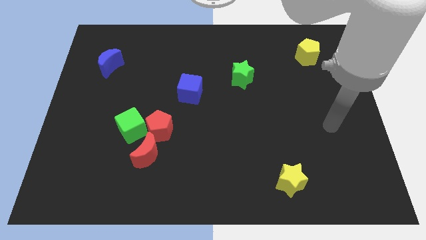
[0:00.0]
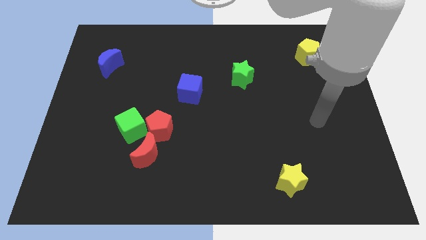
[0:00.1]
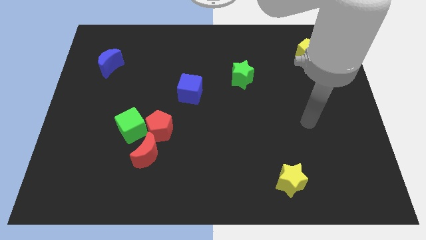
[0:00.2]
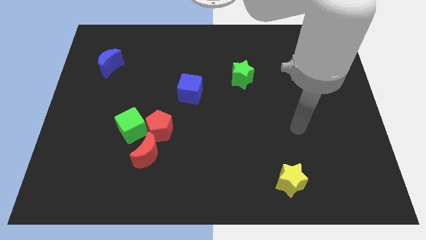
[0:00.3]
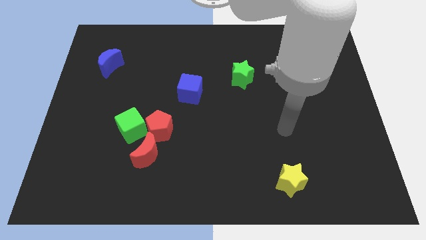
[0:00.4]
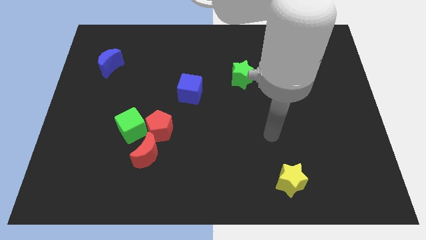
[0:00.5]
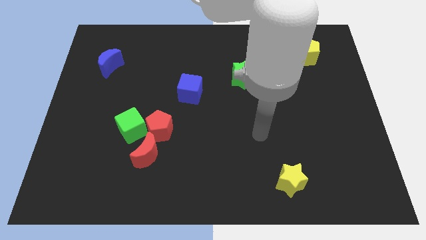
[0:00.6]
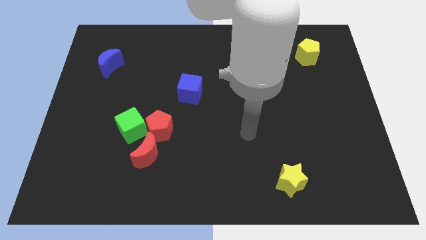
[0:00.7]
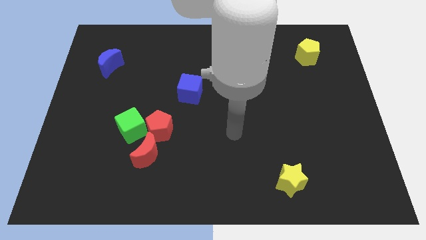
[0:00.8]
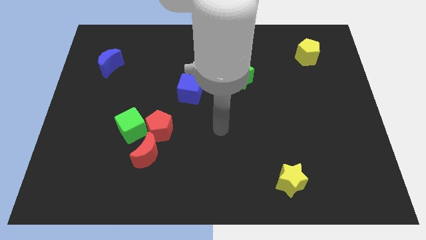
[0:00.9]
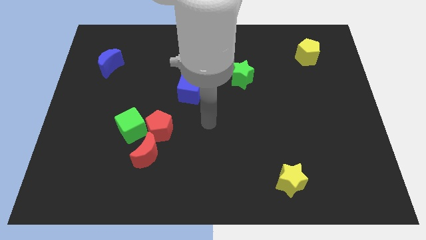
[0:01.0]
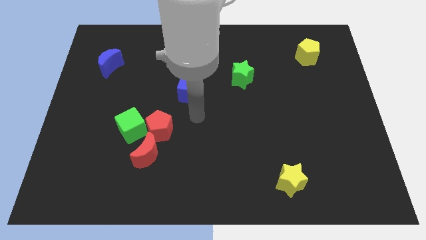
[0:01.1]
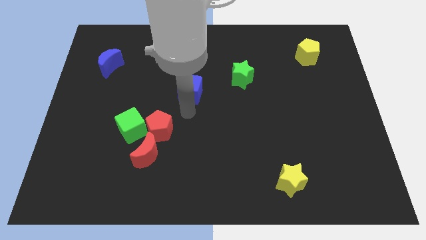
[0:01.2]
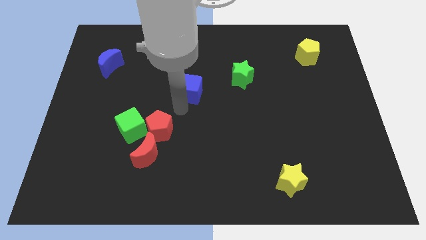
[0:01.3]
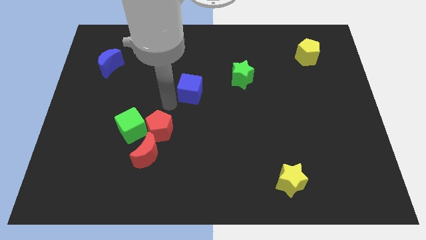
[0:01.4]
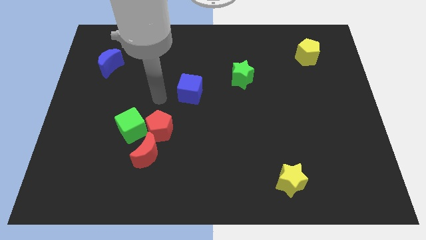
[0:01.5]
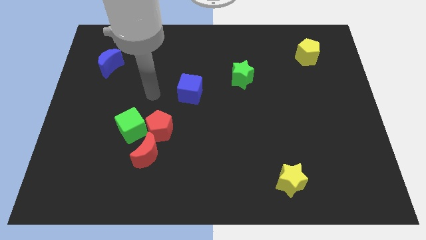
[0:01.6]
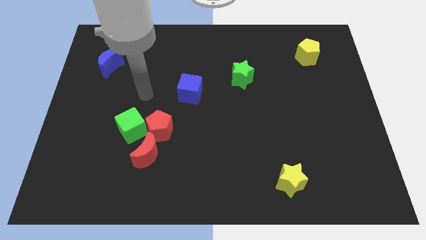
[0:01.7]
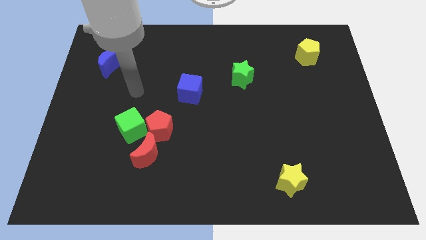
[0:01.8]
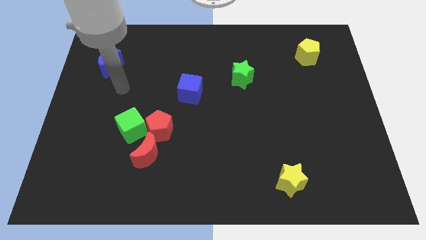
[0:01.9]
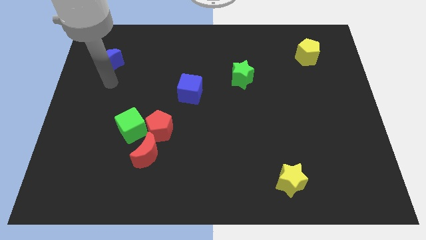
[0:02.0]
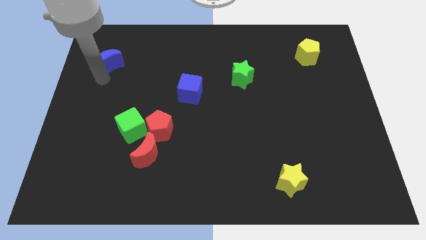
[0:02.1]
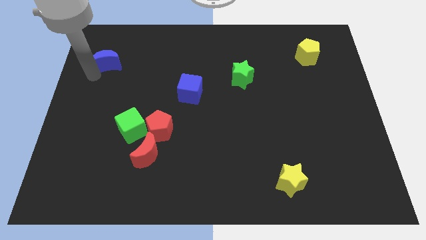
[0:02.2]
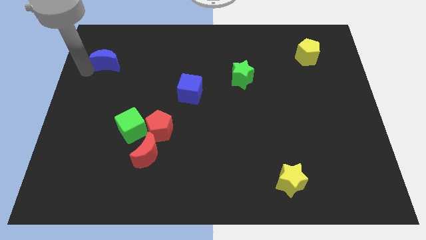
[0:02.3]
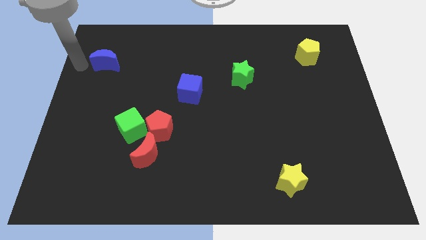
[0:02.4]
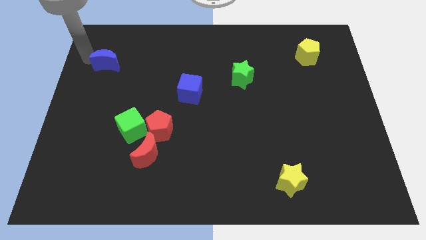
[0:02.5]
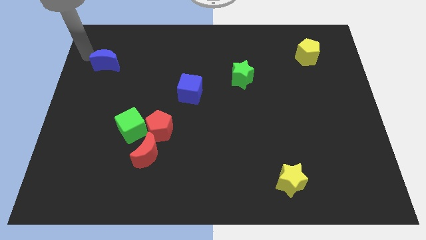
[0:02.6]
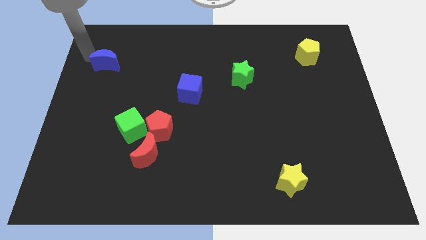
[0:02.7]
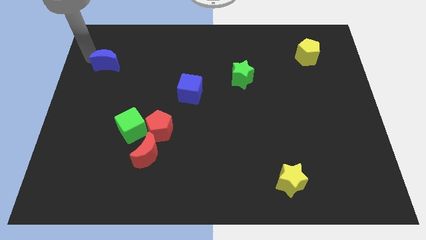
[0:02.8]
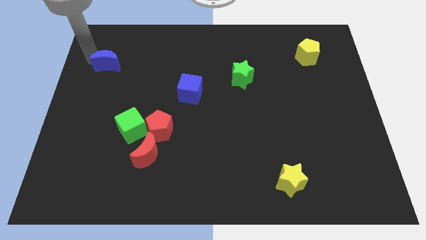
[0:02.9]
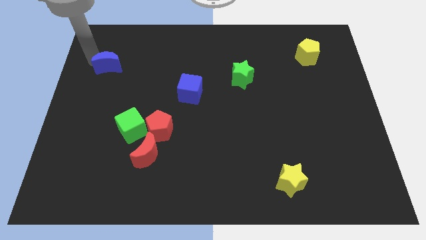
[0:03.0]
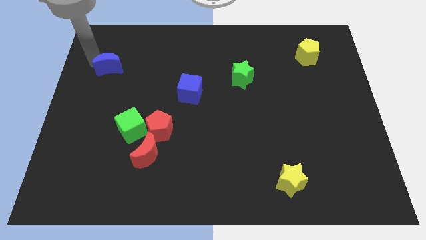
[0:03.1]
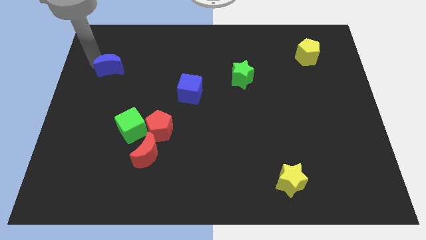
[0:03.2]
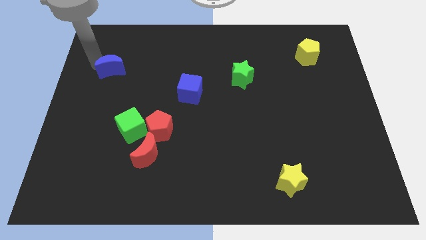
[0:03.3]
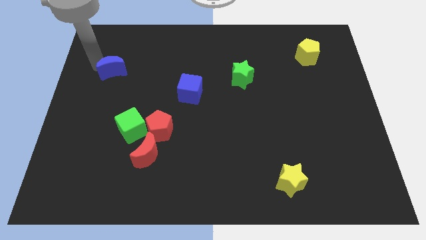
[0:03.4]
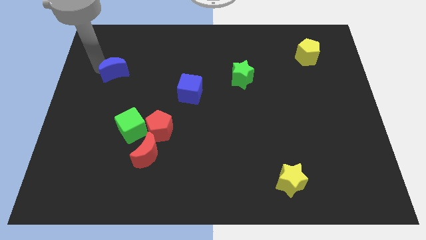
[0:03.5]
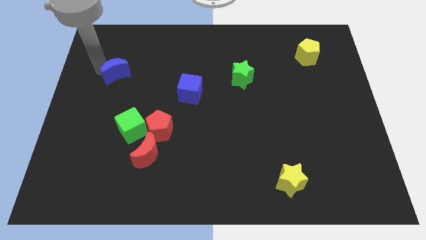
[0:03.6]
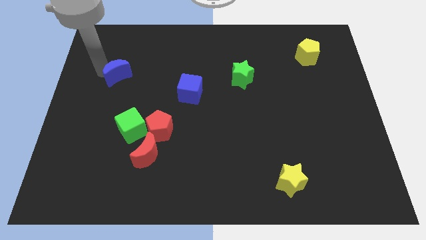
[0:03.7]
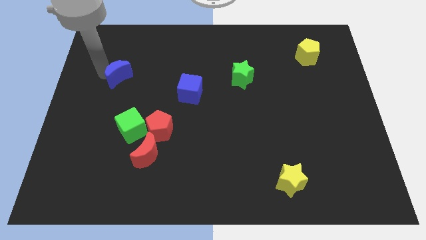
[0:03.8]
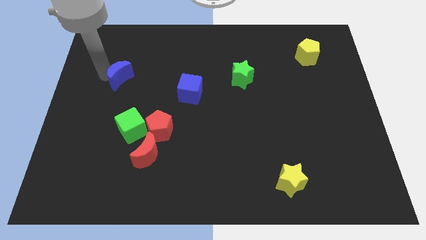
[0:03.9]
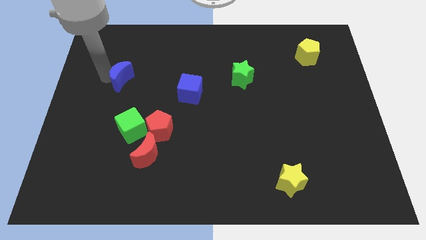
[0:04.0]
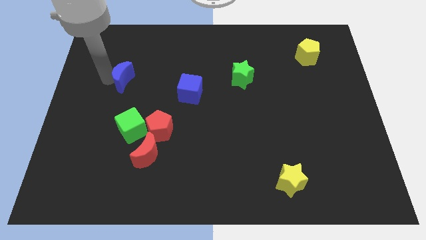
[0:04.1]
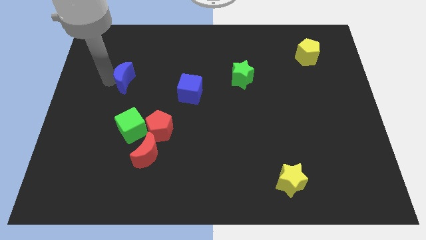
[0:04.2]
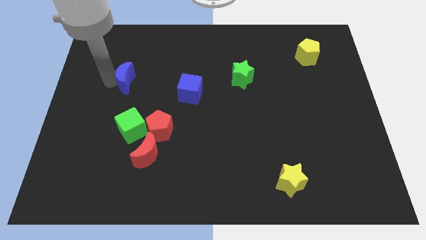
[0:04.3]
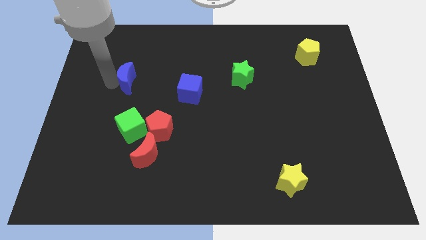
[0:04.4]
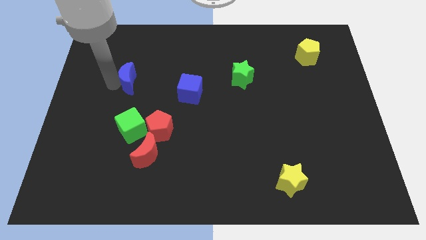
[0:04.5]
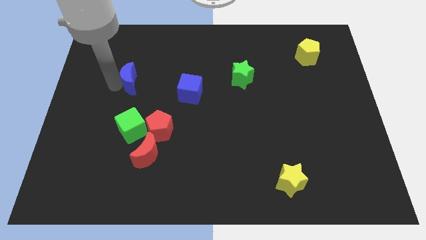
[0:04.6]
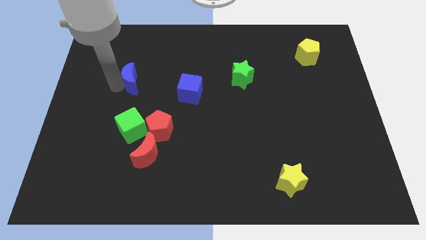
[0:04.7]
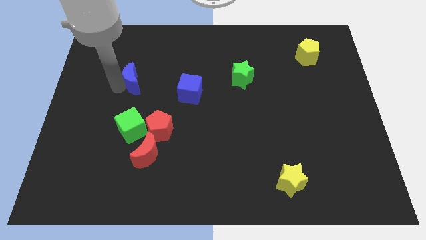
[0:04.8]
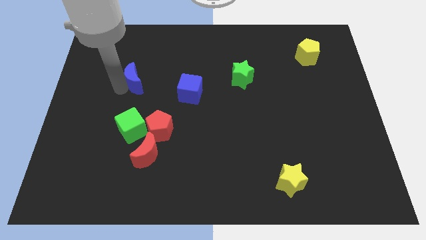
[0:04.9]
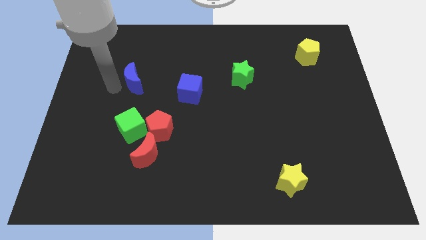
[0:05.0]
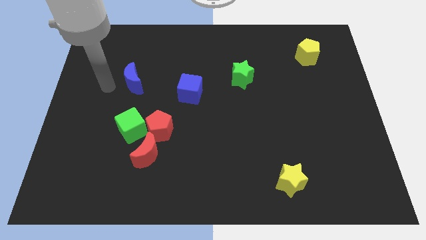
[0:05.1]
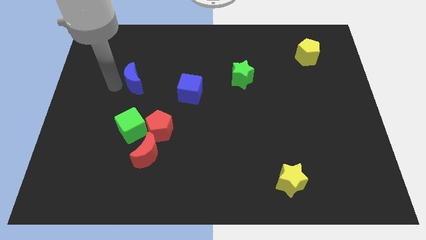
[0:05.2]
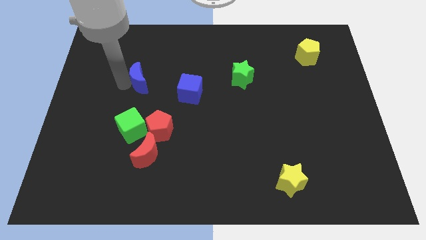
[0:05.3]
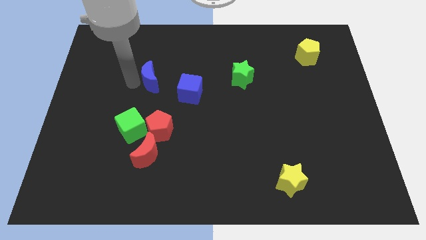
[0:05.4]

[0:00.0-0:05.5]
put the blue moon to the top left of the blue cube

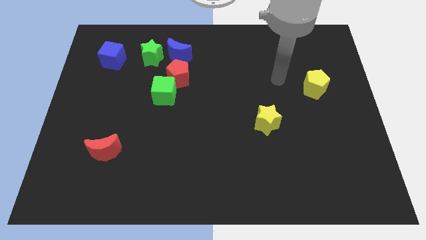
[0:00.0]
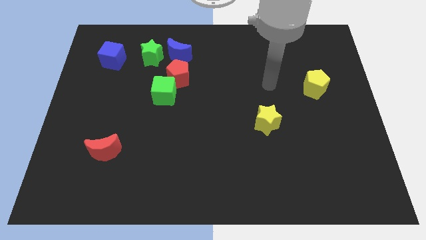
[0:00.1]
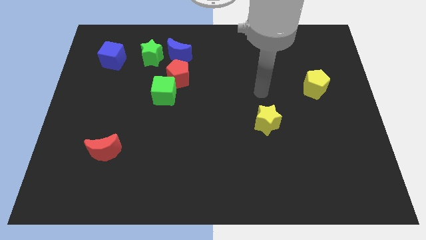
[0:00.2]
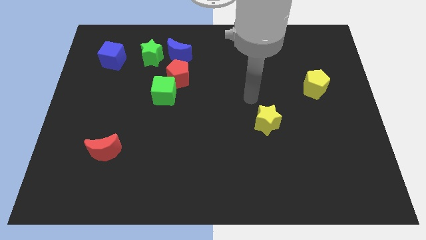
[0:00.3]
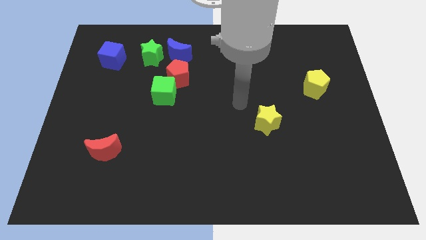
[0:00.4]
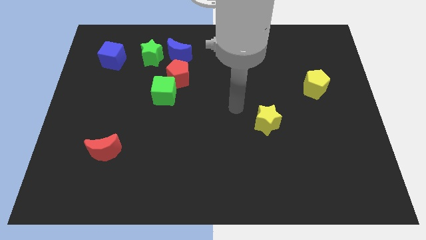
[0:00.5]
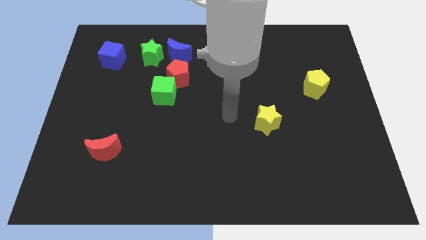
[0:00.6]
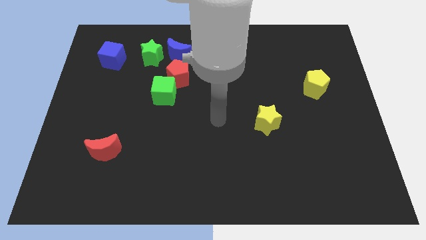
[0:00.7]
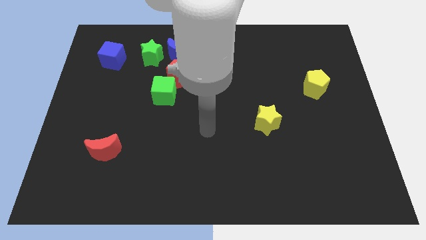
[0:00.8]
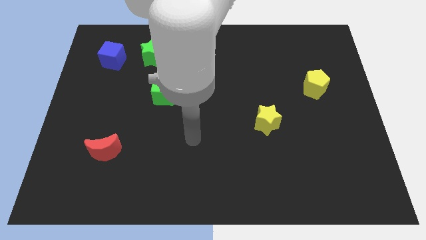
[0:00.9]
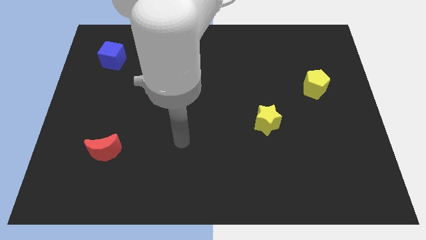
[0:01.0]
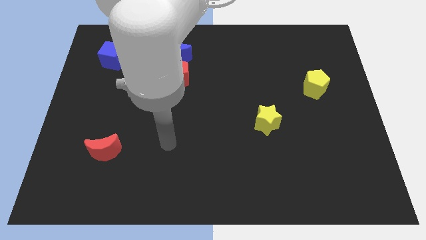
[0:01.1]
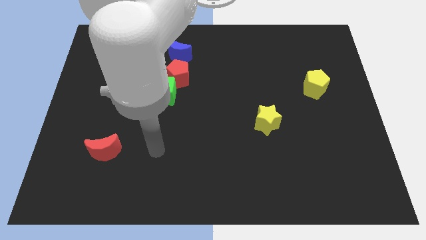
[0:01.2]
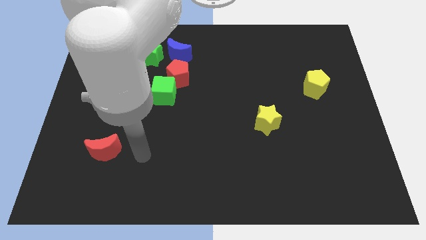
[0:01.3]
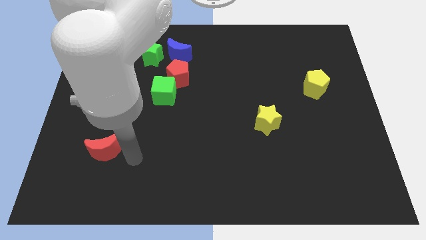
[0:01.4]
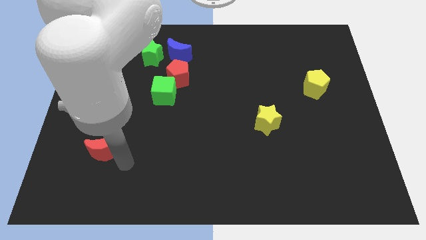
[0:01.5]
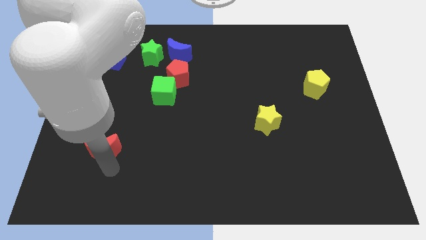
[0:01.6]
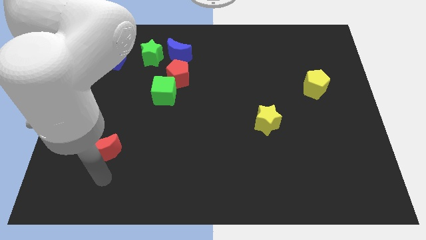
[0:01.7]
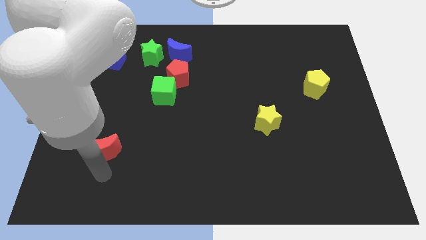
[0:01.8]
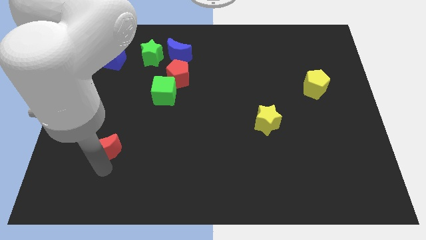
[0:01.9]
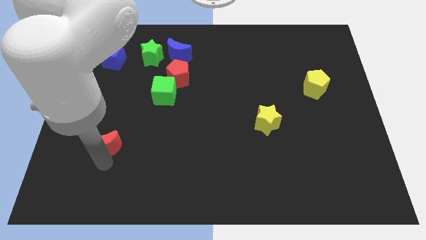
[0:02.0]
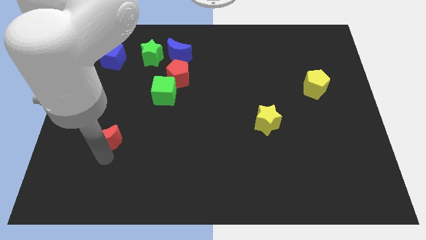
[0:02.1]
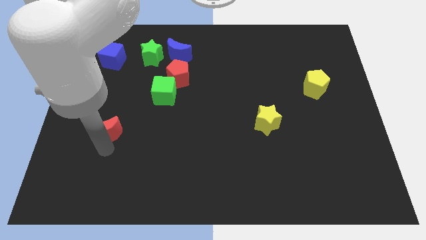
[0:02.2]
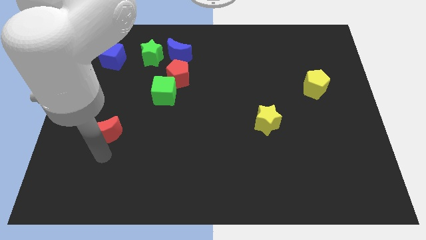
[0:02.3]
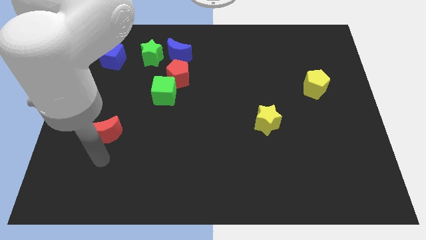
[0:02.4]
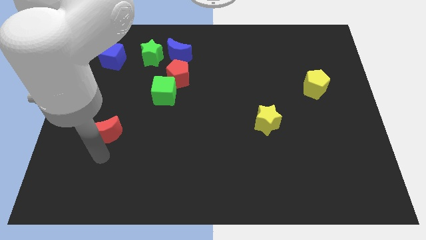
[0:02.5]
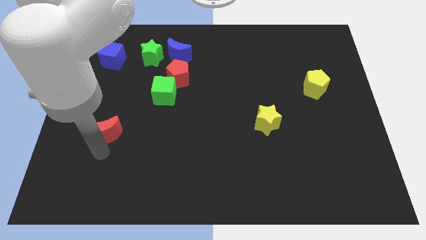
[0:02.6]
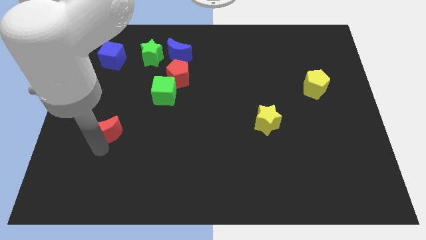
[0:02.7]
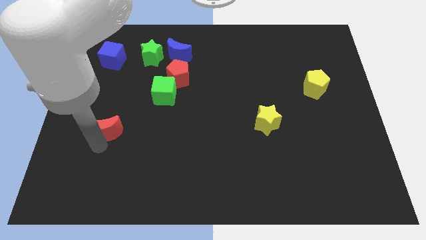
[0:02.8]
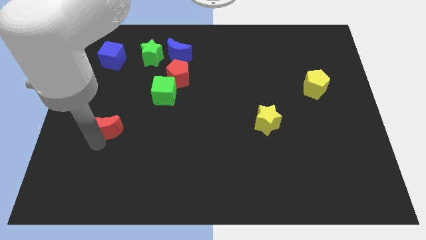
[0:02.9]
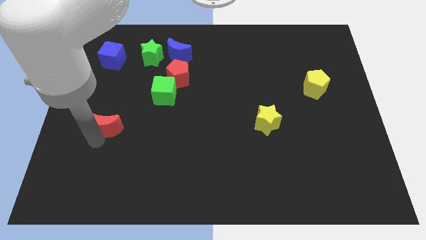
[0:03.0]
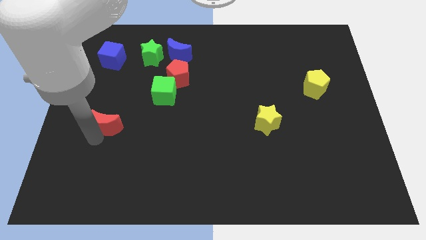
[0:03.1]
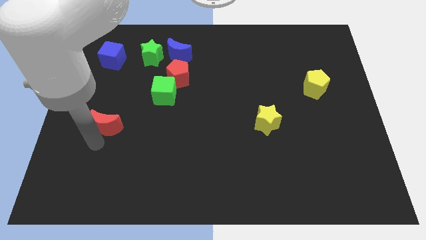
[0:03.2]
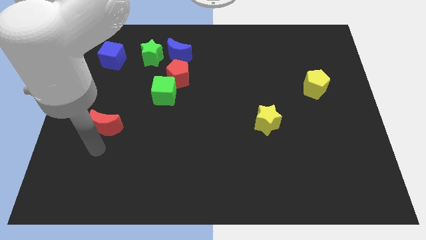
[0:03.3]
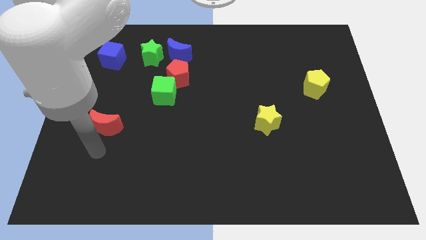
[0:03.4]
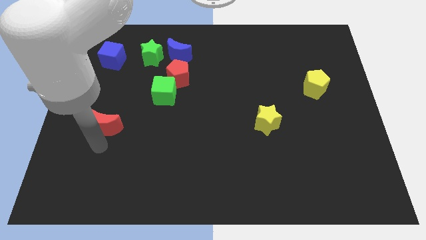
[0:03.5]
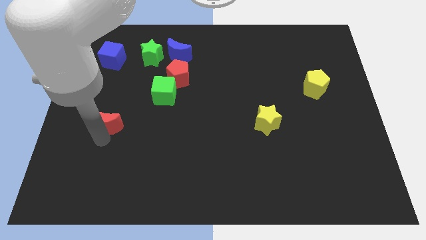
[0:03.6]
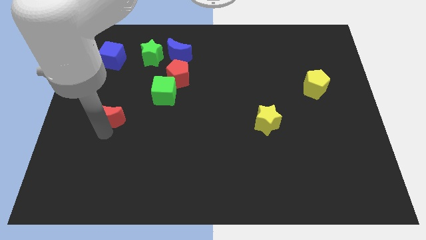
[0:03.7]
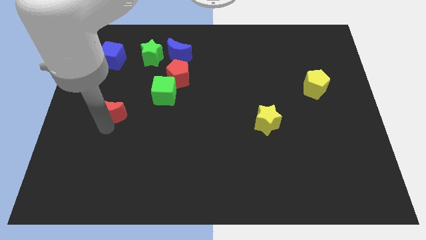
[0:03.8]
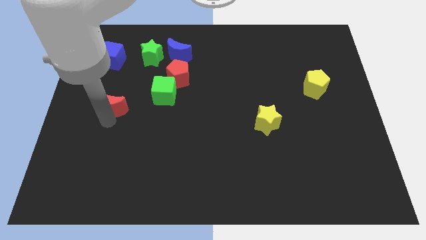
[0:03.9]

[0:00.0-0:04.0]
put the red moon left of the green cube
